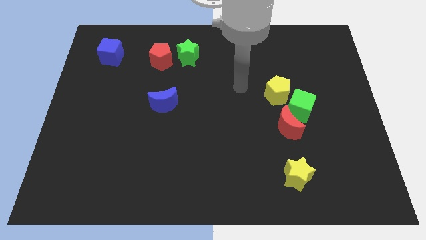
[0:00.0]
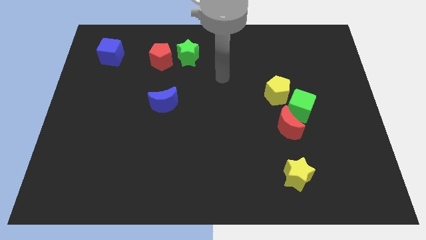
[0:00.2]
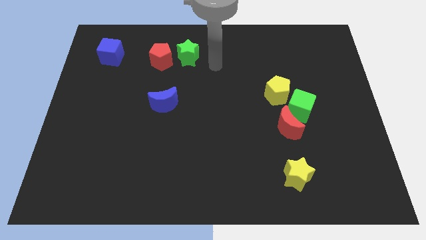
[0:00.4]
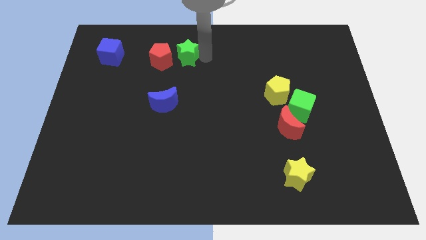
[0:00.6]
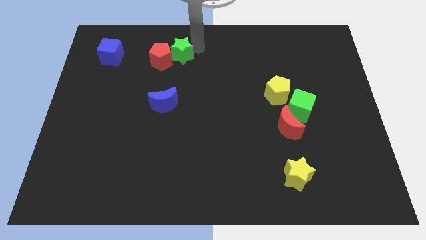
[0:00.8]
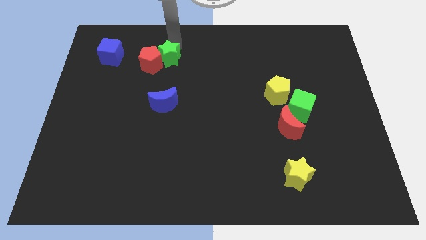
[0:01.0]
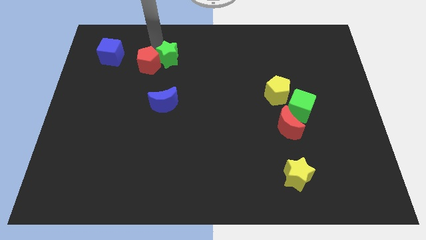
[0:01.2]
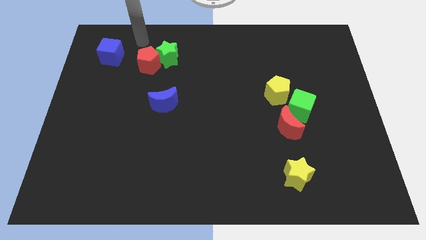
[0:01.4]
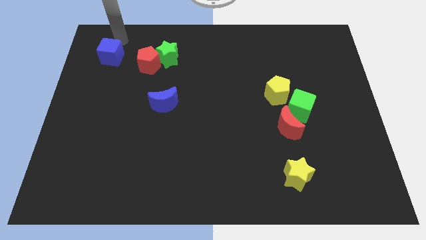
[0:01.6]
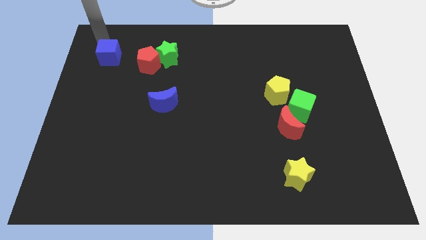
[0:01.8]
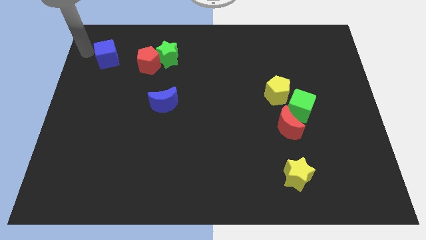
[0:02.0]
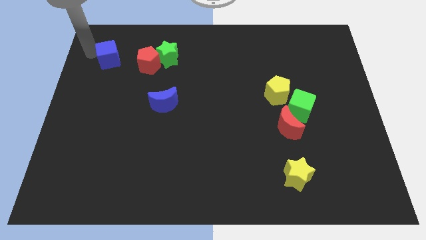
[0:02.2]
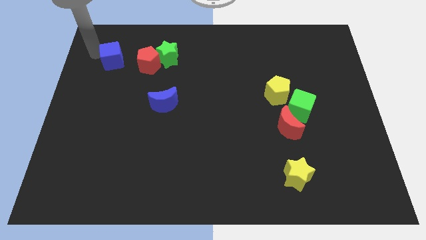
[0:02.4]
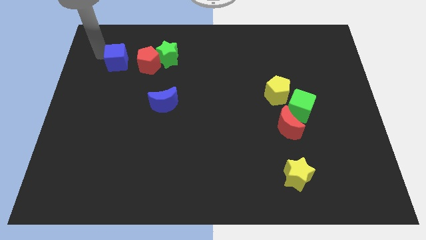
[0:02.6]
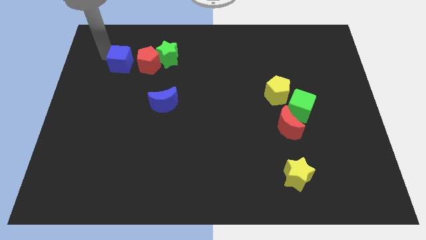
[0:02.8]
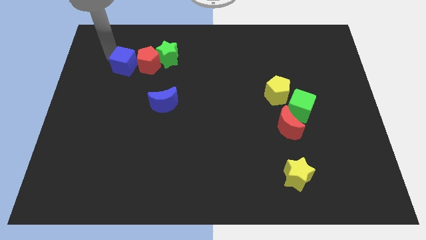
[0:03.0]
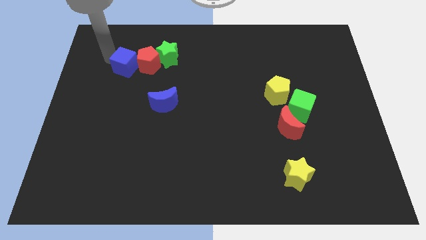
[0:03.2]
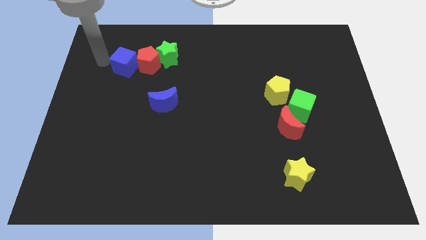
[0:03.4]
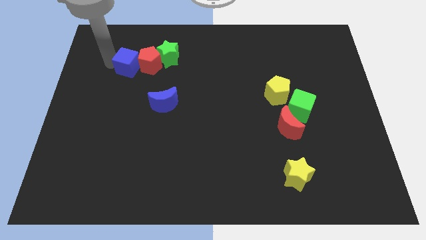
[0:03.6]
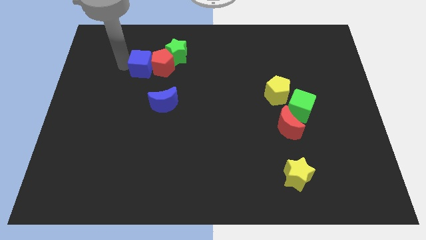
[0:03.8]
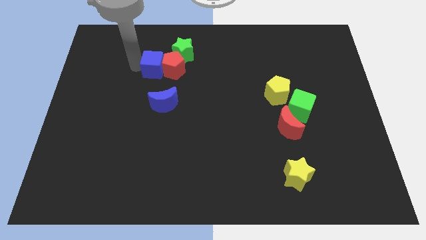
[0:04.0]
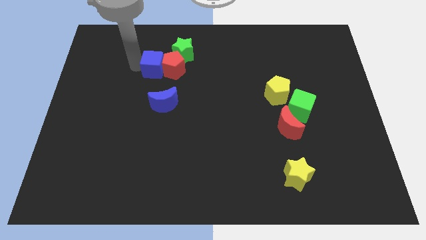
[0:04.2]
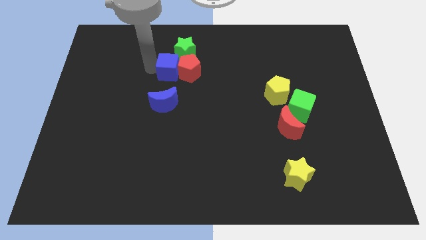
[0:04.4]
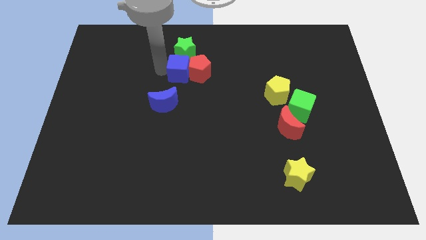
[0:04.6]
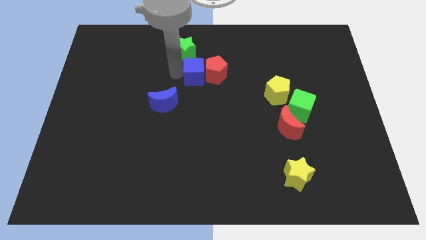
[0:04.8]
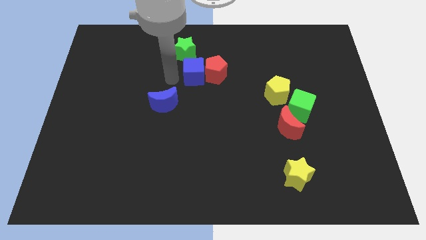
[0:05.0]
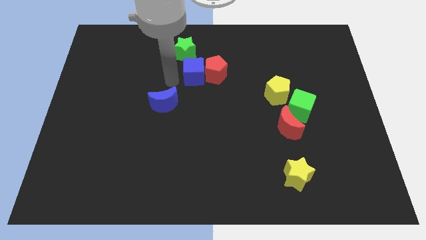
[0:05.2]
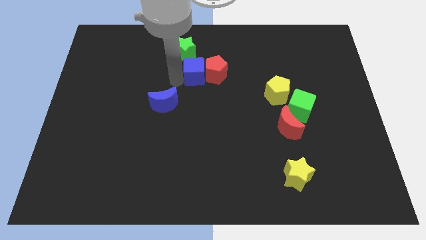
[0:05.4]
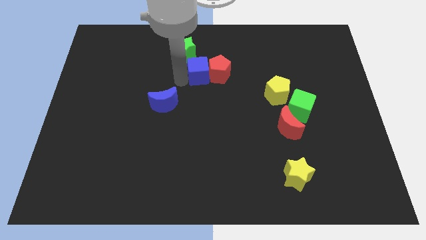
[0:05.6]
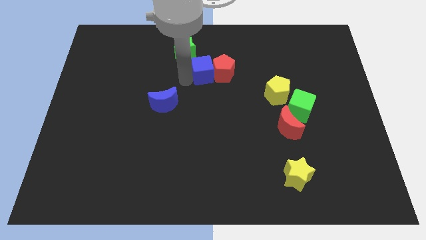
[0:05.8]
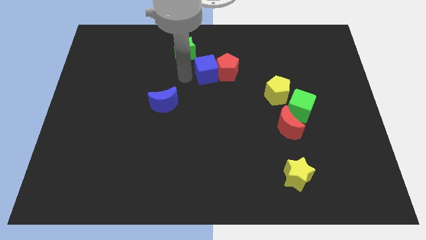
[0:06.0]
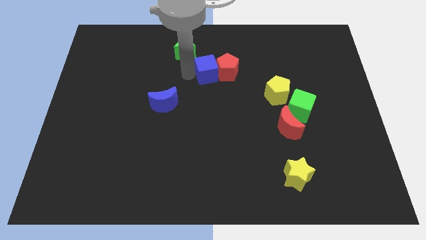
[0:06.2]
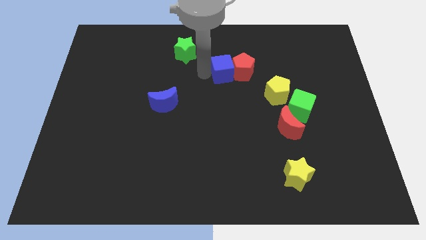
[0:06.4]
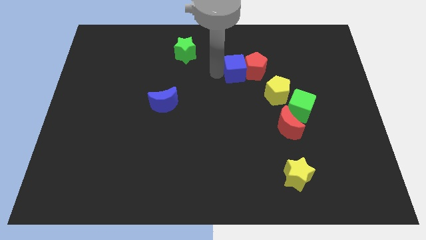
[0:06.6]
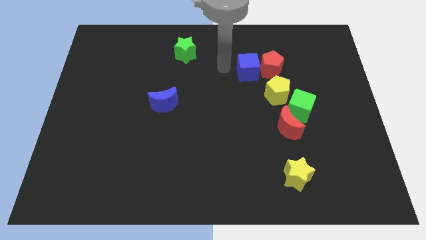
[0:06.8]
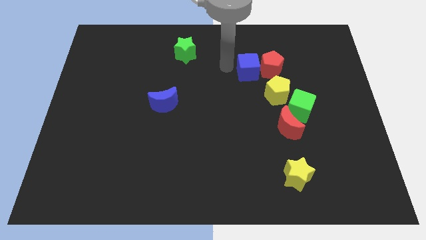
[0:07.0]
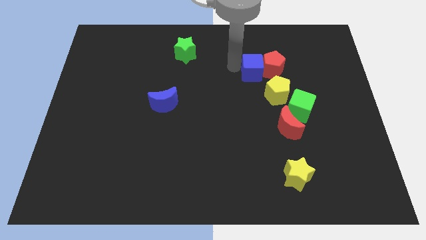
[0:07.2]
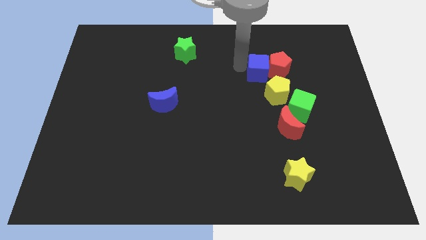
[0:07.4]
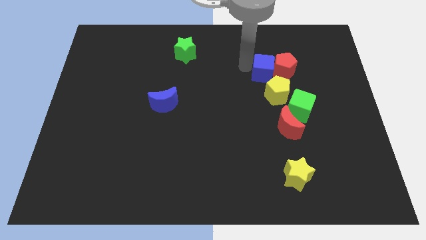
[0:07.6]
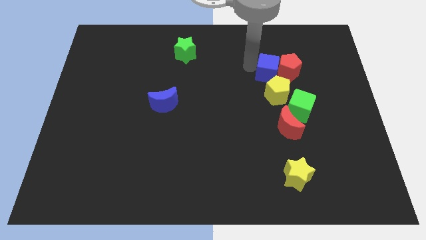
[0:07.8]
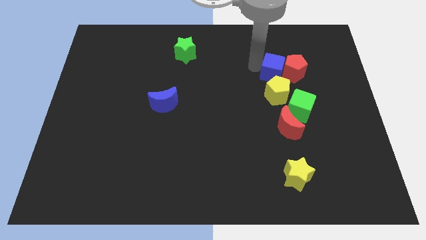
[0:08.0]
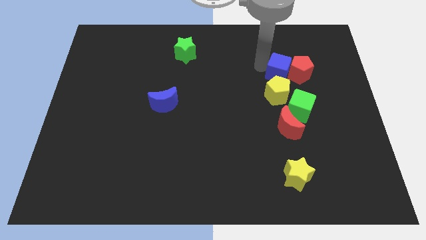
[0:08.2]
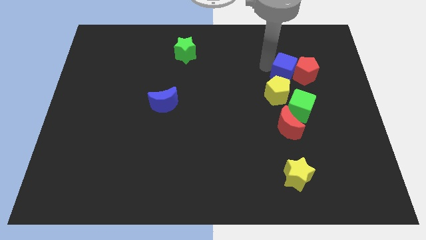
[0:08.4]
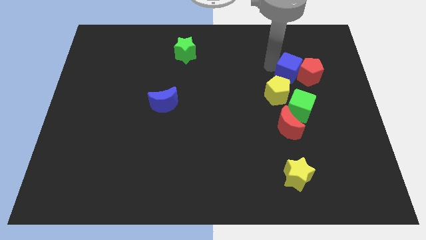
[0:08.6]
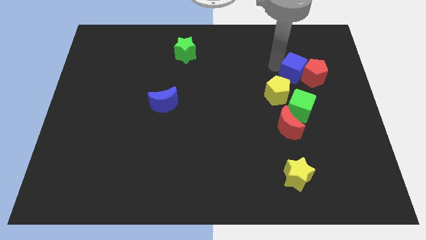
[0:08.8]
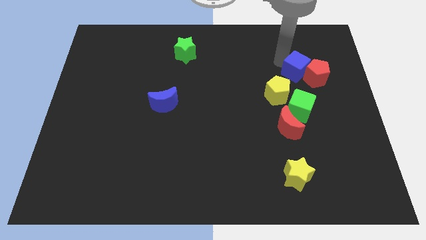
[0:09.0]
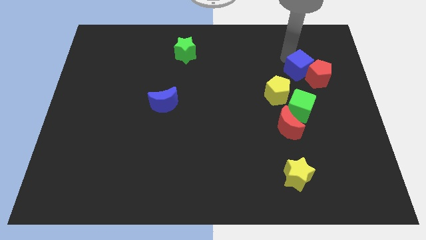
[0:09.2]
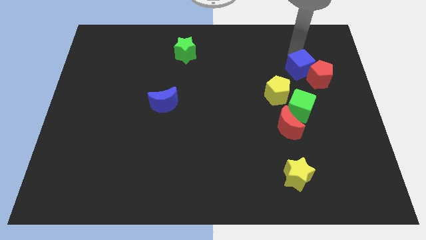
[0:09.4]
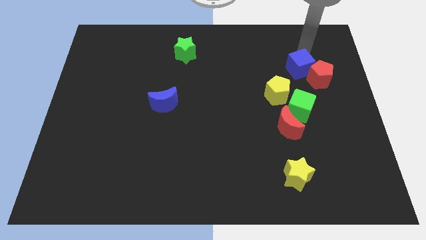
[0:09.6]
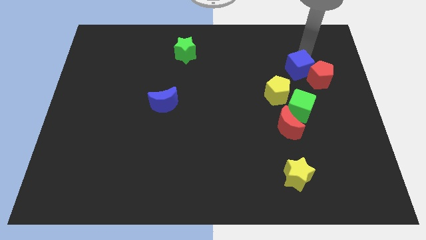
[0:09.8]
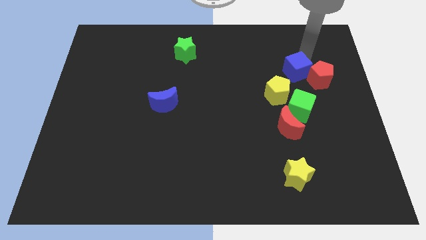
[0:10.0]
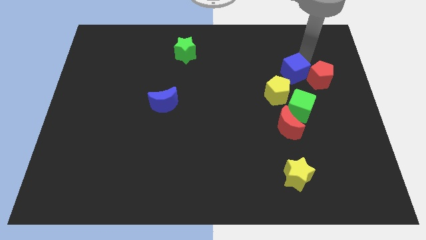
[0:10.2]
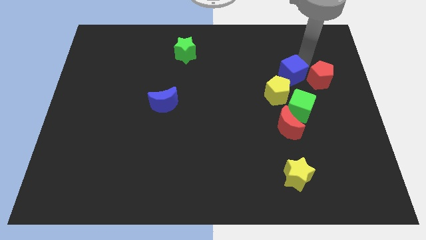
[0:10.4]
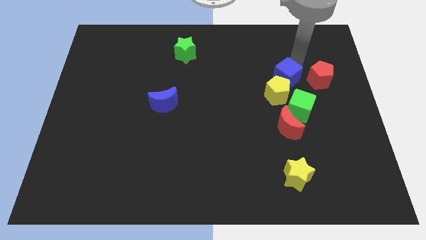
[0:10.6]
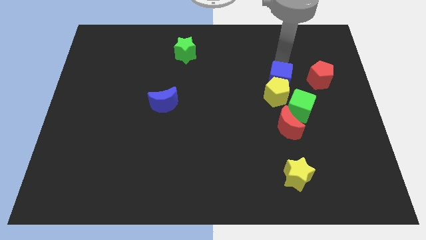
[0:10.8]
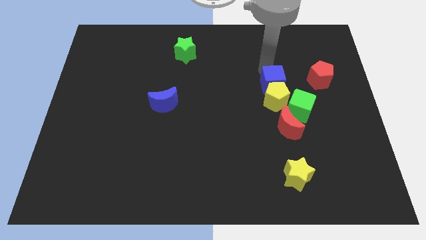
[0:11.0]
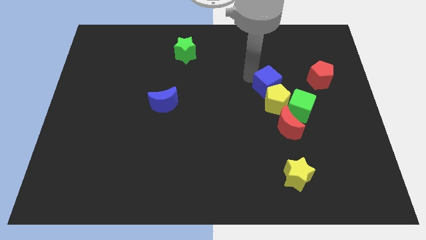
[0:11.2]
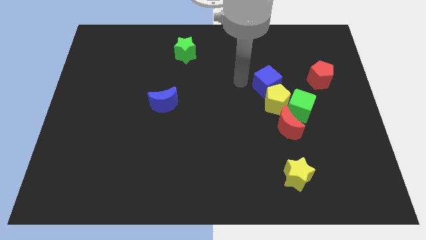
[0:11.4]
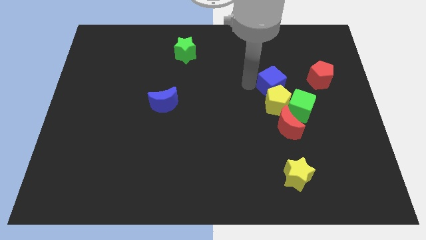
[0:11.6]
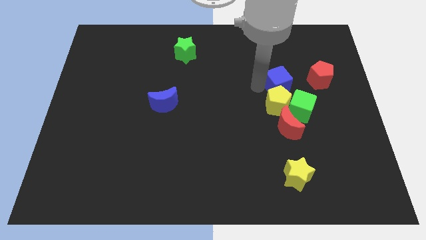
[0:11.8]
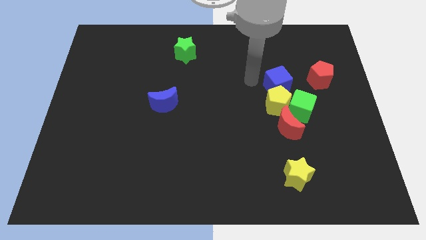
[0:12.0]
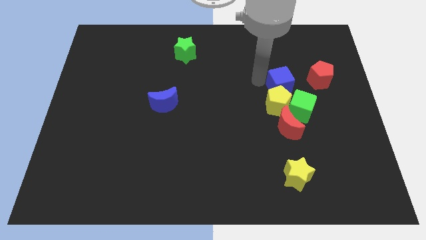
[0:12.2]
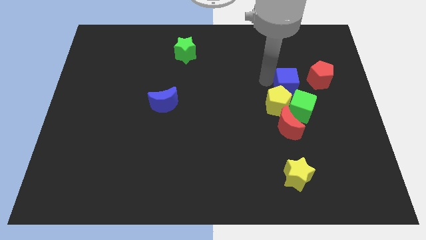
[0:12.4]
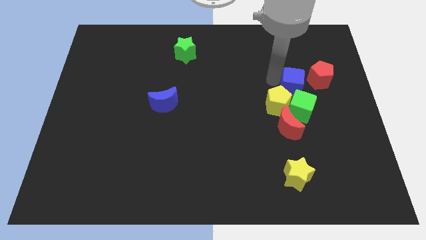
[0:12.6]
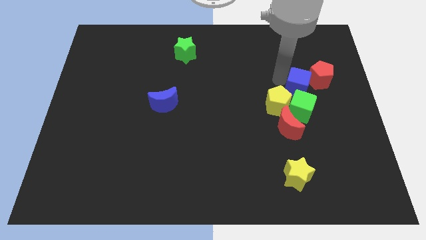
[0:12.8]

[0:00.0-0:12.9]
push the blue cube to the top right of the green cube

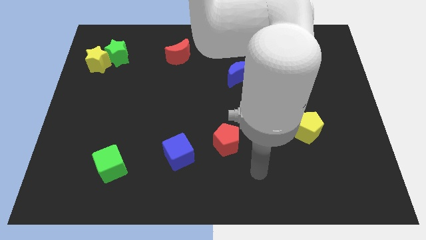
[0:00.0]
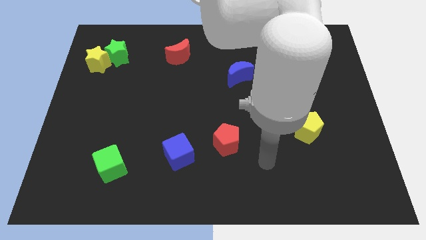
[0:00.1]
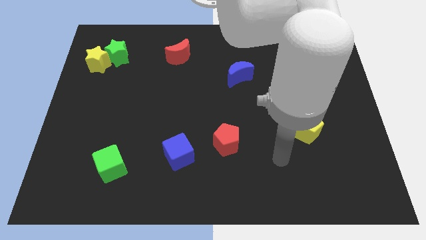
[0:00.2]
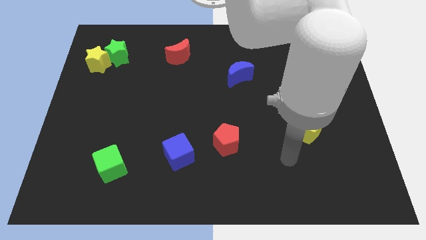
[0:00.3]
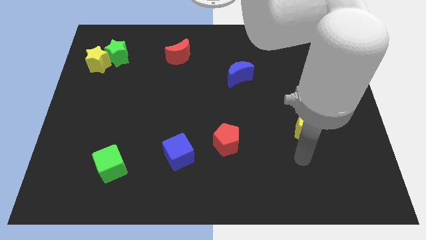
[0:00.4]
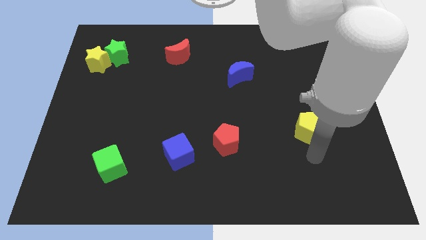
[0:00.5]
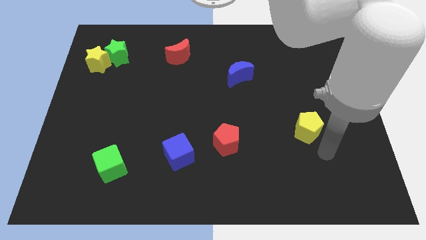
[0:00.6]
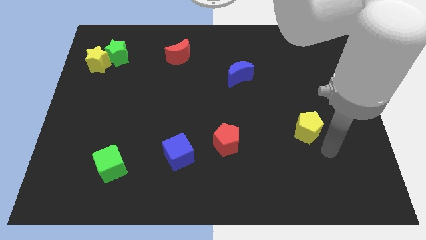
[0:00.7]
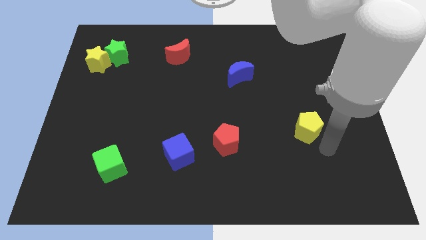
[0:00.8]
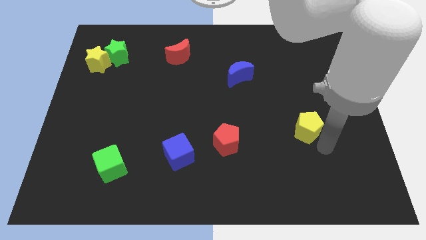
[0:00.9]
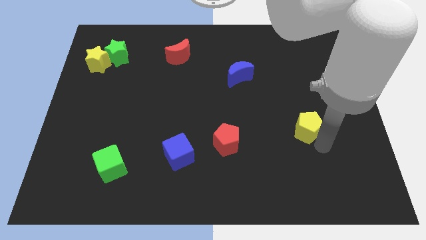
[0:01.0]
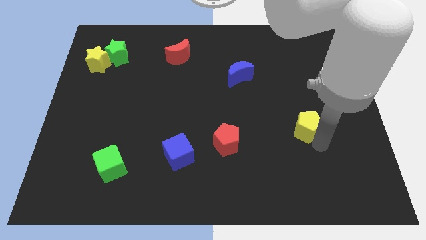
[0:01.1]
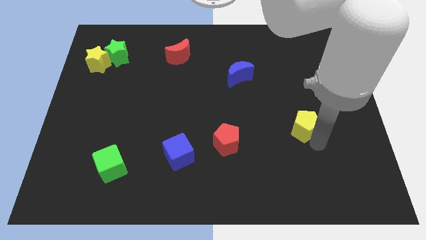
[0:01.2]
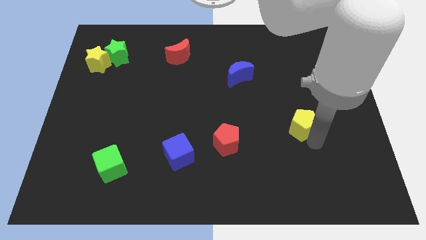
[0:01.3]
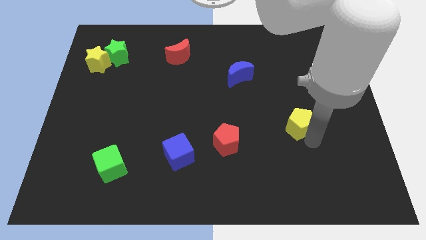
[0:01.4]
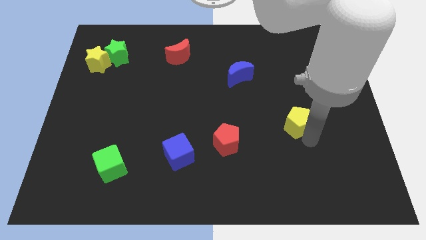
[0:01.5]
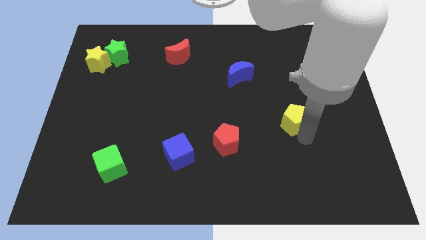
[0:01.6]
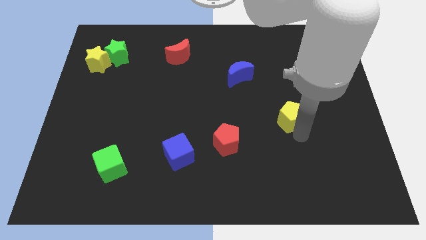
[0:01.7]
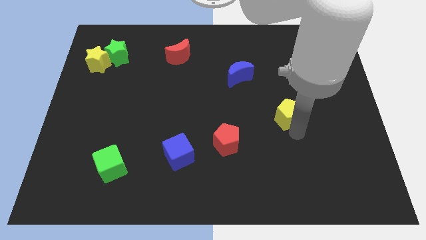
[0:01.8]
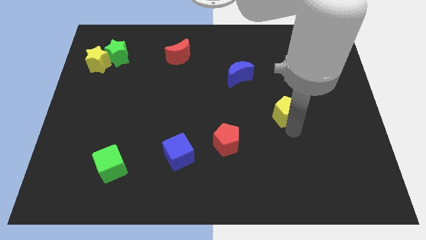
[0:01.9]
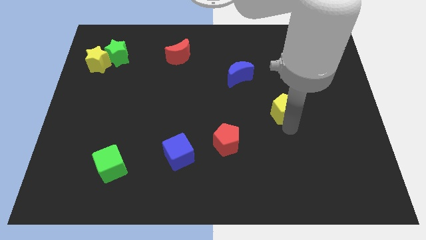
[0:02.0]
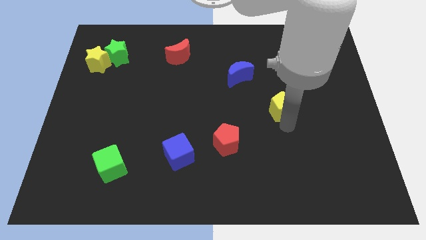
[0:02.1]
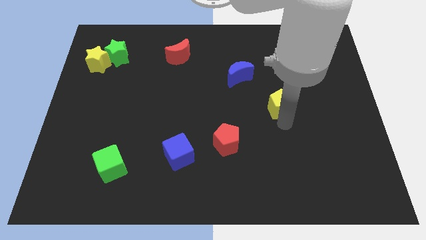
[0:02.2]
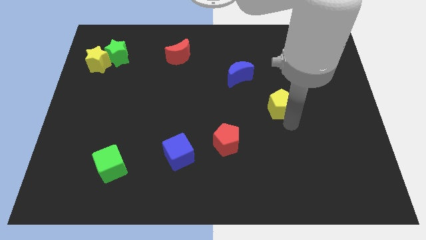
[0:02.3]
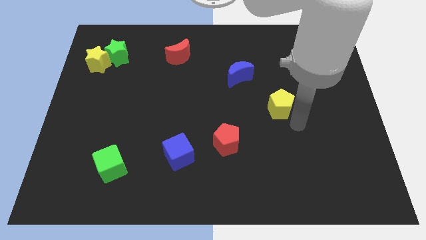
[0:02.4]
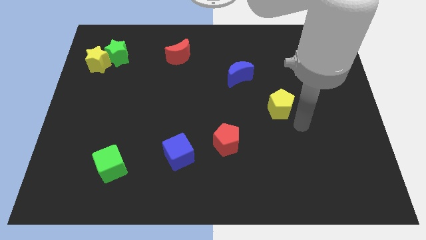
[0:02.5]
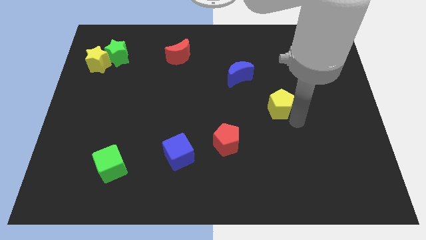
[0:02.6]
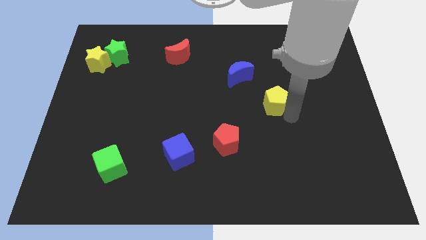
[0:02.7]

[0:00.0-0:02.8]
slide the yellow pentagon diagonally down and to the right of the blue moon
